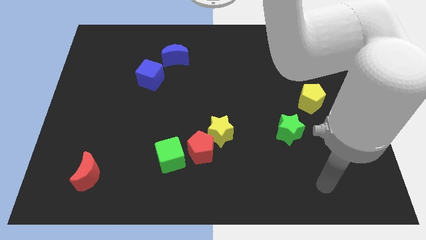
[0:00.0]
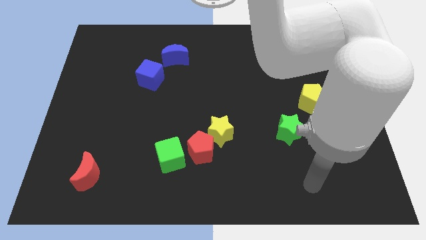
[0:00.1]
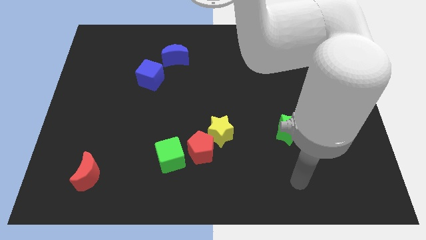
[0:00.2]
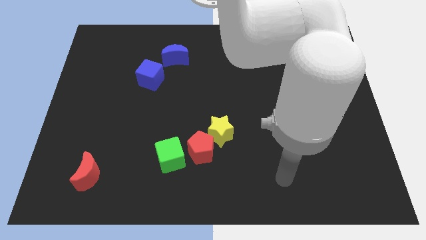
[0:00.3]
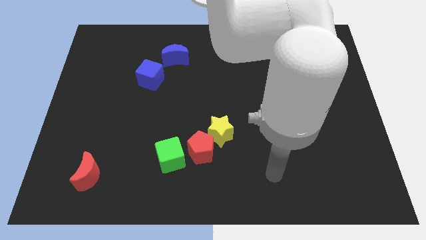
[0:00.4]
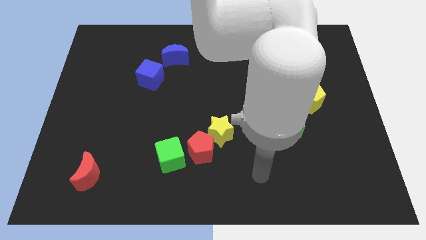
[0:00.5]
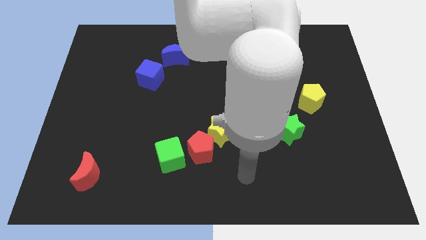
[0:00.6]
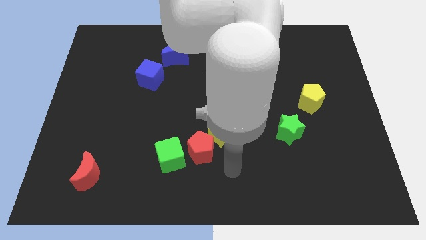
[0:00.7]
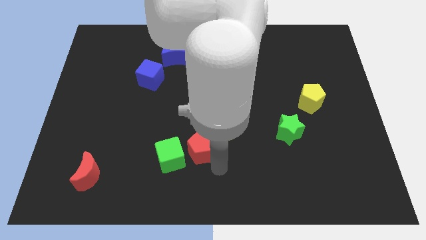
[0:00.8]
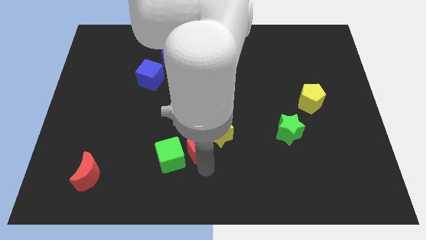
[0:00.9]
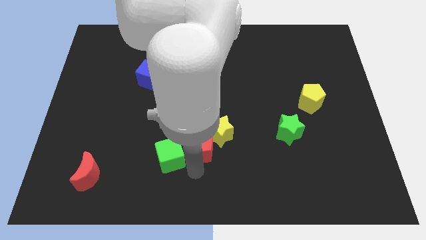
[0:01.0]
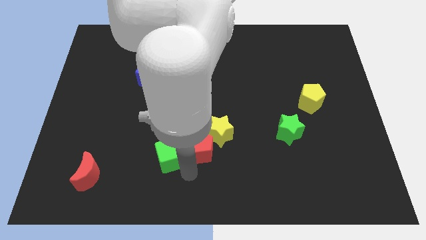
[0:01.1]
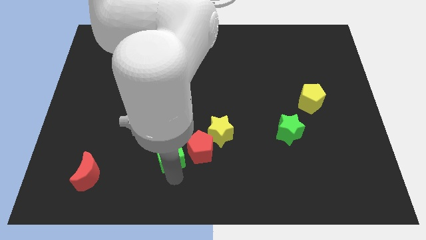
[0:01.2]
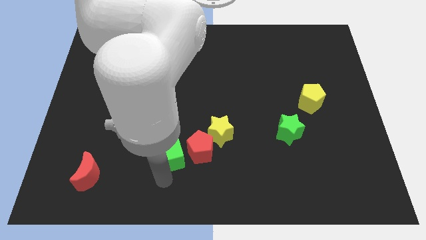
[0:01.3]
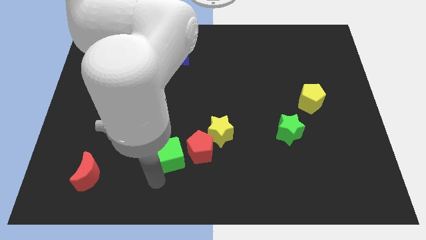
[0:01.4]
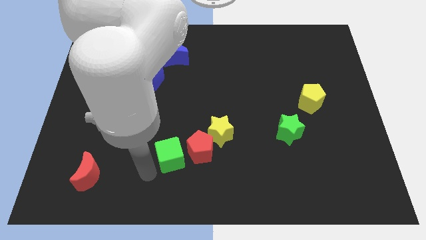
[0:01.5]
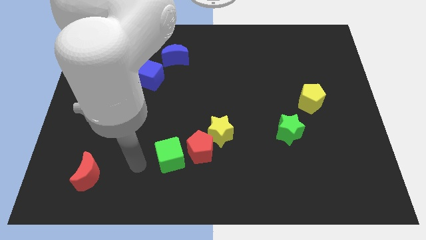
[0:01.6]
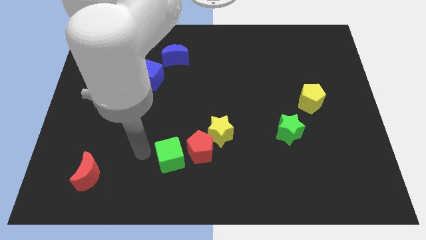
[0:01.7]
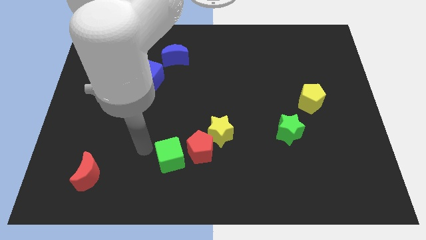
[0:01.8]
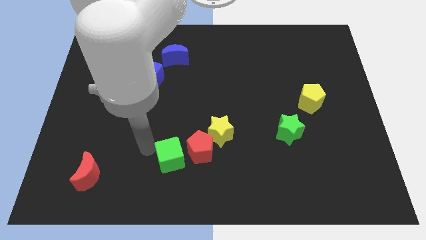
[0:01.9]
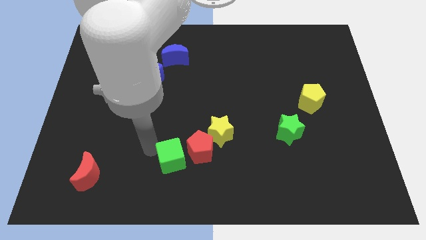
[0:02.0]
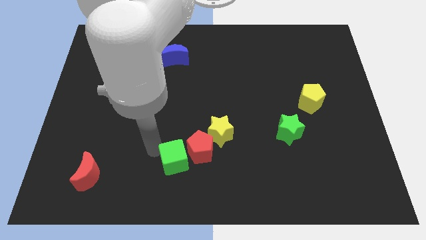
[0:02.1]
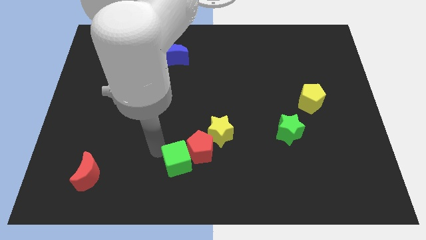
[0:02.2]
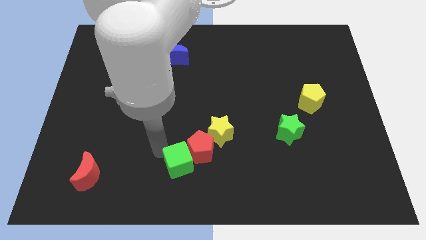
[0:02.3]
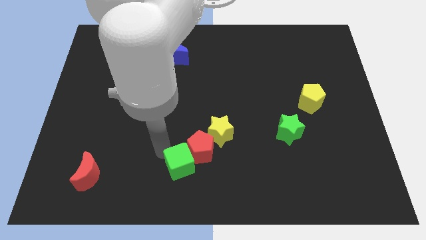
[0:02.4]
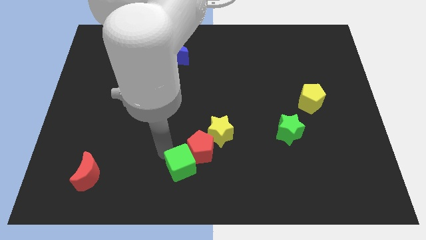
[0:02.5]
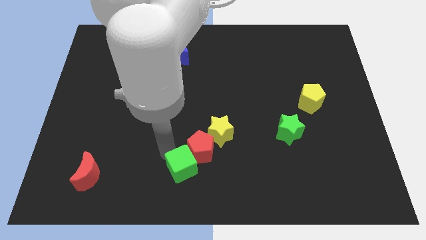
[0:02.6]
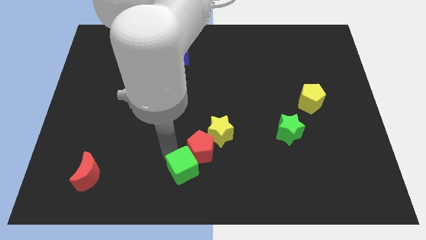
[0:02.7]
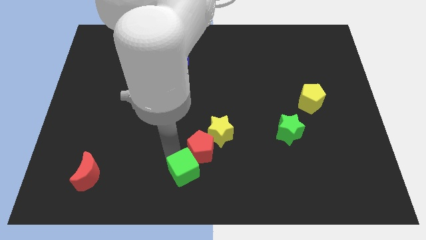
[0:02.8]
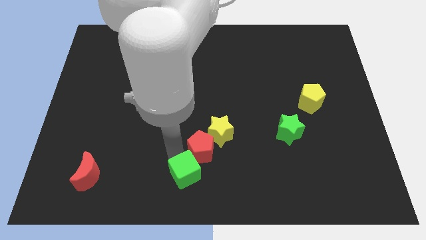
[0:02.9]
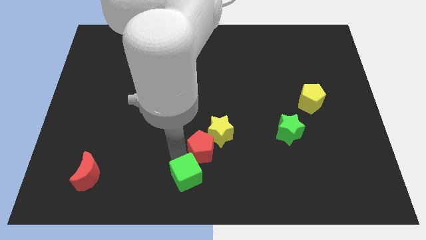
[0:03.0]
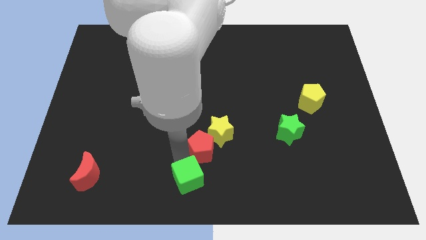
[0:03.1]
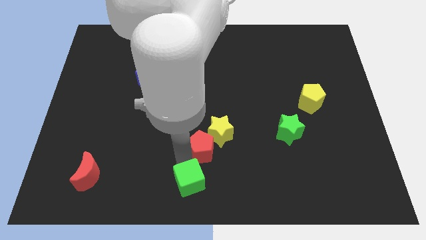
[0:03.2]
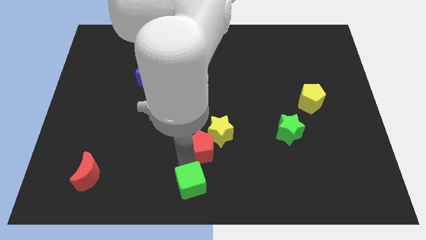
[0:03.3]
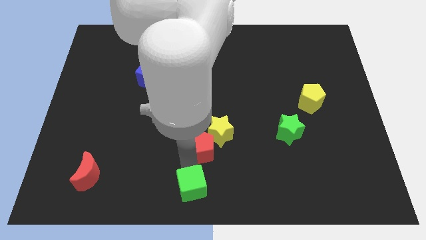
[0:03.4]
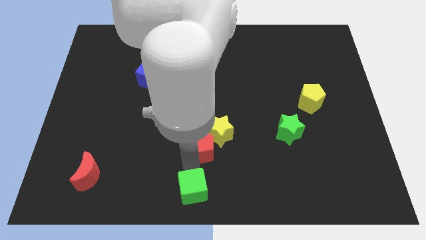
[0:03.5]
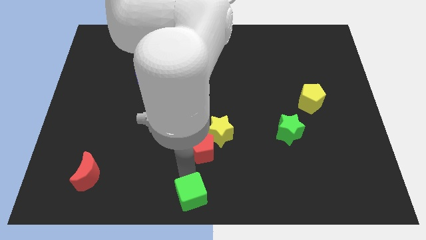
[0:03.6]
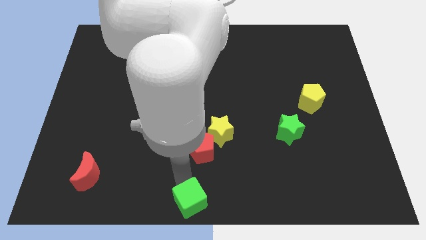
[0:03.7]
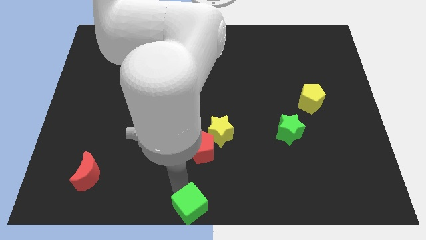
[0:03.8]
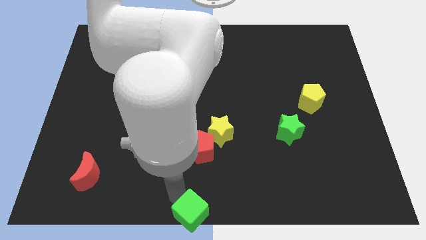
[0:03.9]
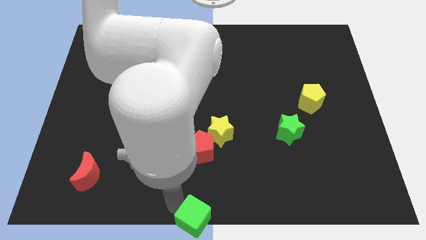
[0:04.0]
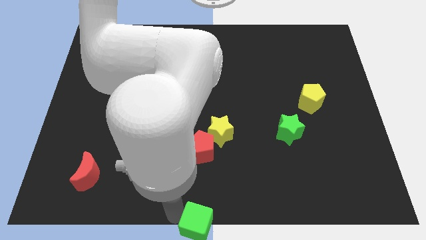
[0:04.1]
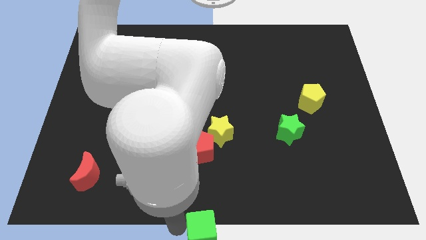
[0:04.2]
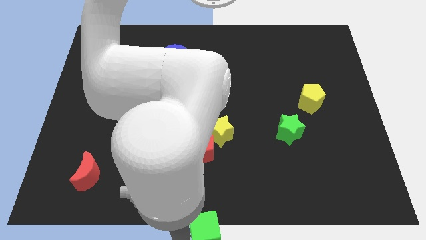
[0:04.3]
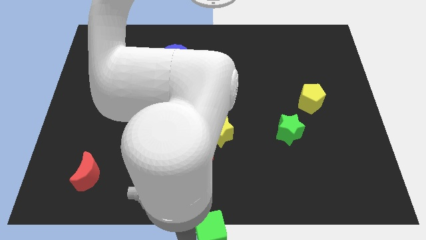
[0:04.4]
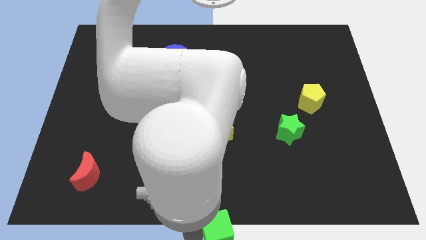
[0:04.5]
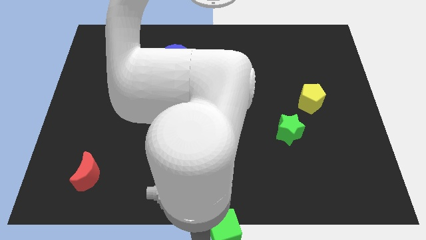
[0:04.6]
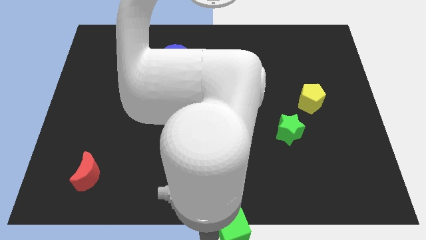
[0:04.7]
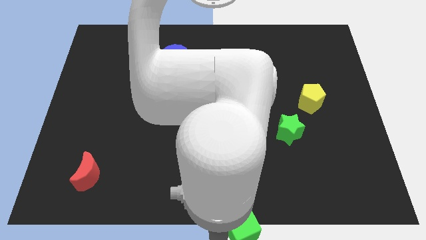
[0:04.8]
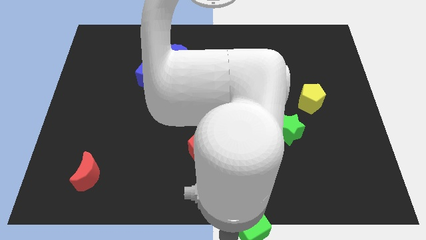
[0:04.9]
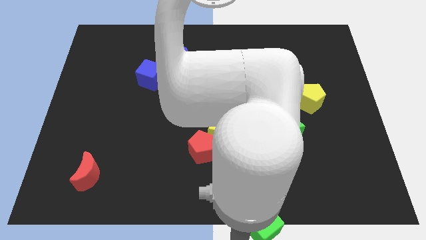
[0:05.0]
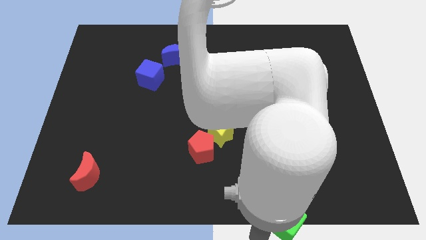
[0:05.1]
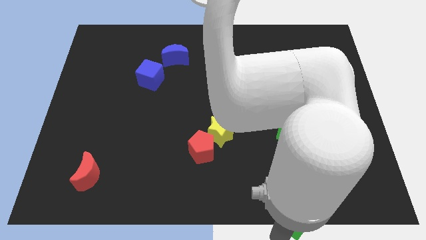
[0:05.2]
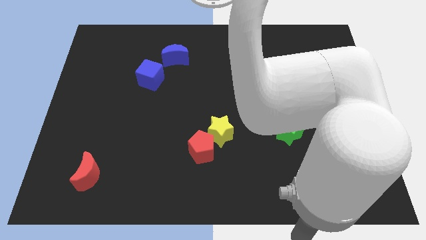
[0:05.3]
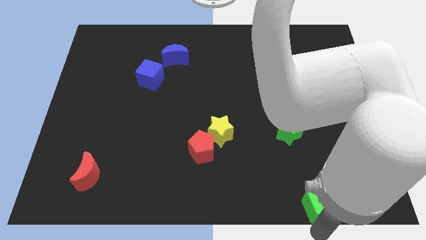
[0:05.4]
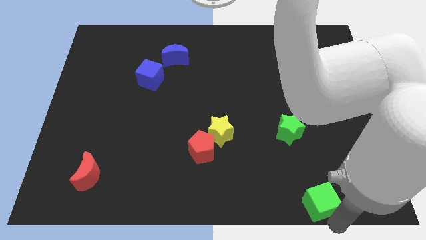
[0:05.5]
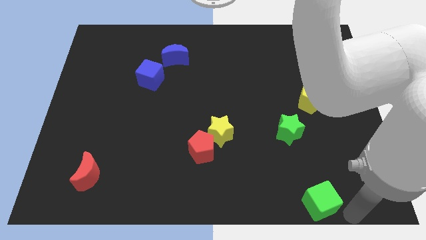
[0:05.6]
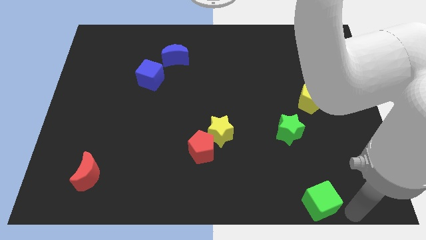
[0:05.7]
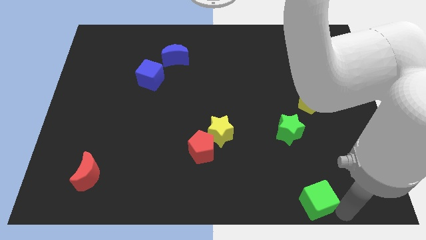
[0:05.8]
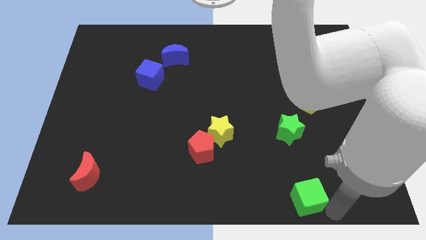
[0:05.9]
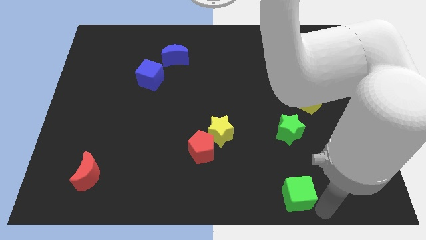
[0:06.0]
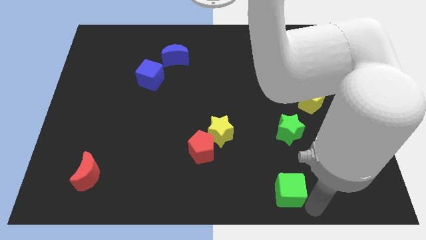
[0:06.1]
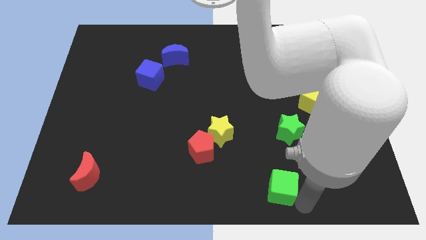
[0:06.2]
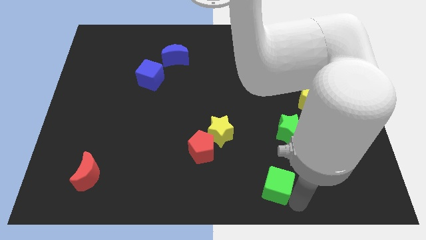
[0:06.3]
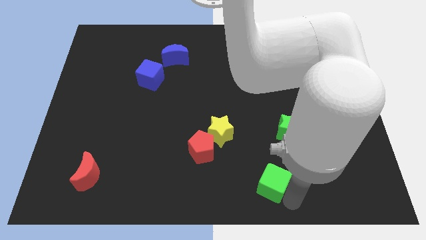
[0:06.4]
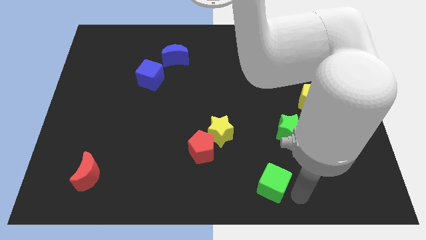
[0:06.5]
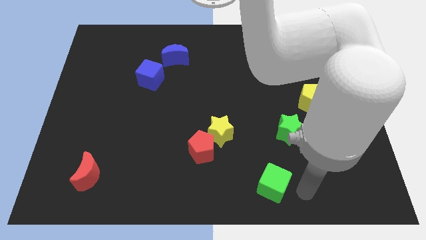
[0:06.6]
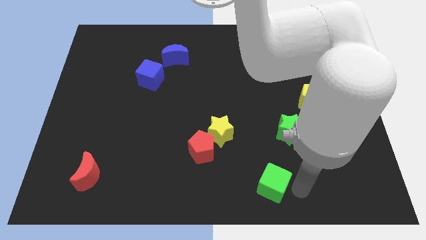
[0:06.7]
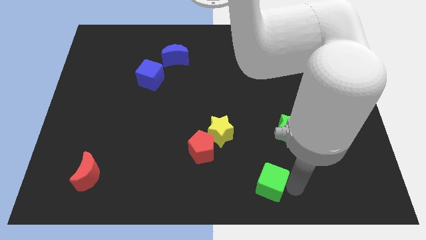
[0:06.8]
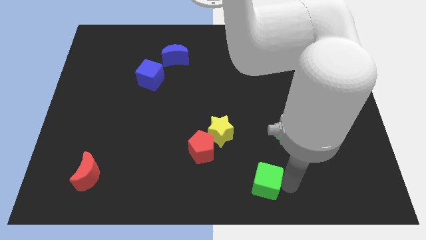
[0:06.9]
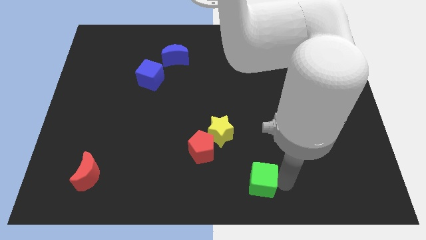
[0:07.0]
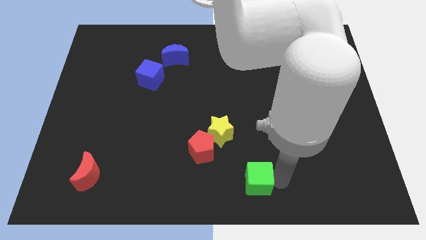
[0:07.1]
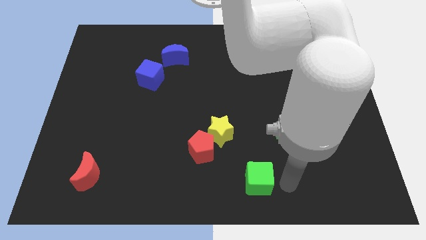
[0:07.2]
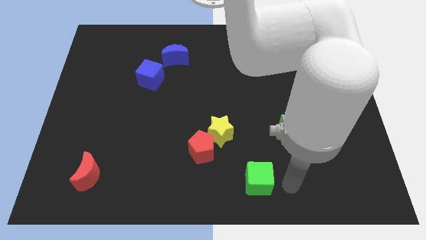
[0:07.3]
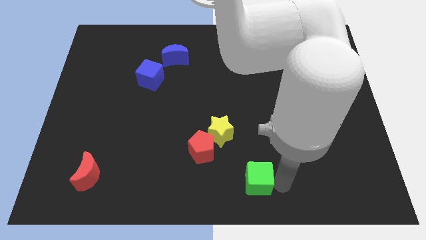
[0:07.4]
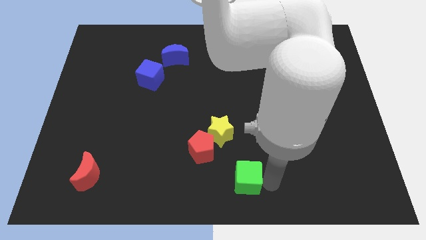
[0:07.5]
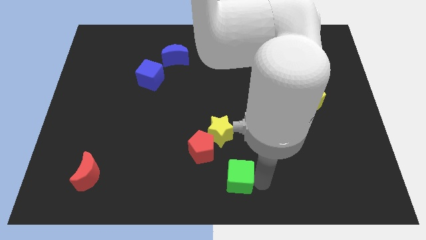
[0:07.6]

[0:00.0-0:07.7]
put the green cube to the bottom of the yellow star

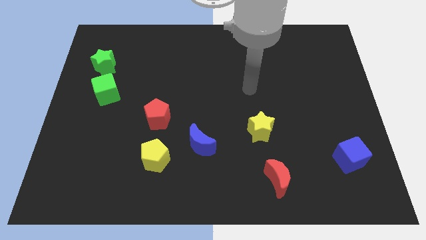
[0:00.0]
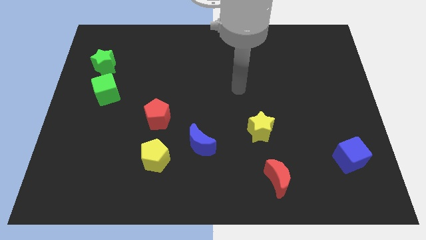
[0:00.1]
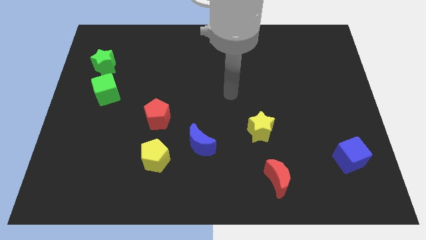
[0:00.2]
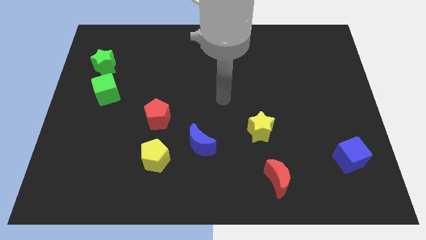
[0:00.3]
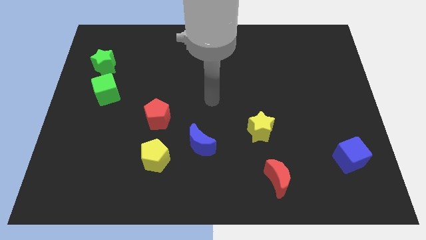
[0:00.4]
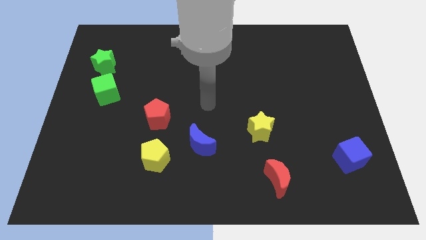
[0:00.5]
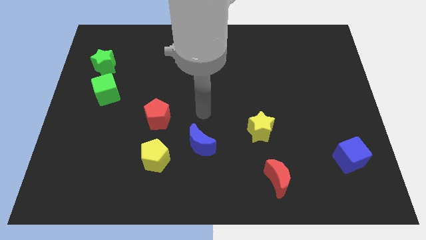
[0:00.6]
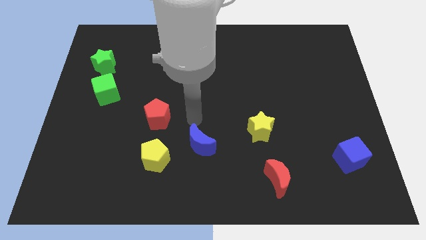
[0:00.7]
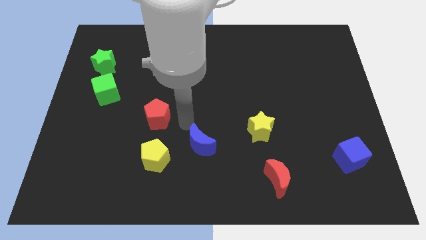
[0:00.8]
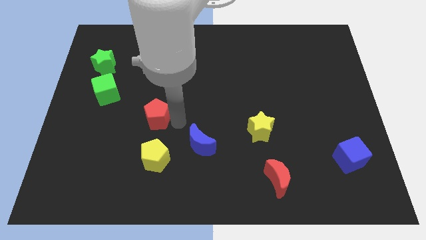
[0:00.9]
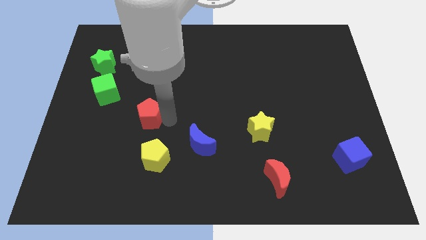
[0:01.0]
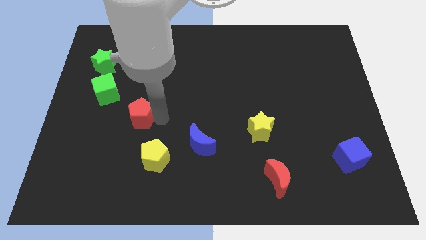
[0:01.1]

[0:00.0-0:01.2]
put the red pentagon to the bottom right of the green cube
